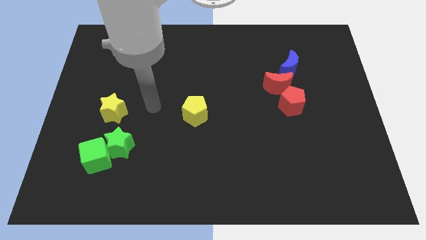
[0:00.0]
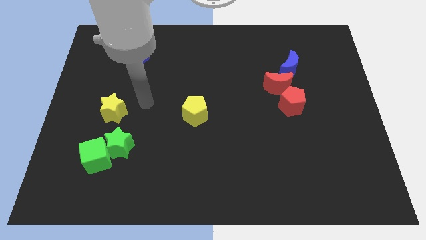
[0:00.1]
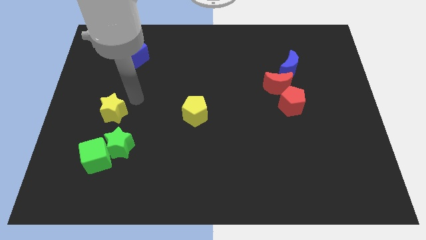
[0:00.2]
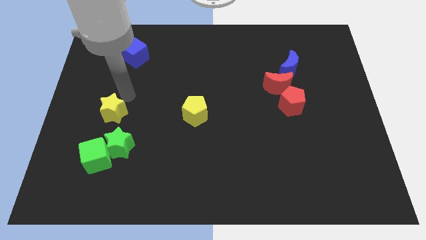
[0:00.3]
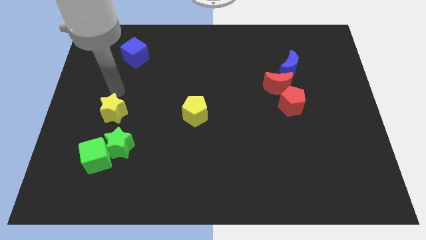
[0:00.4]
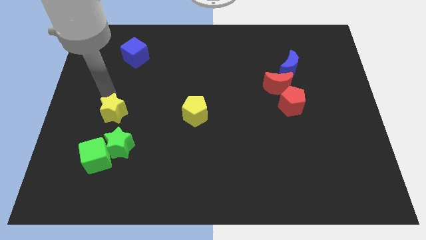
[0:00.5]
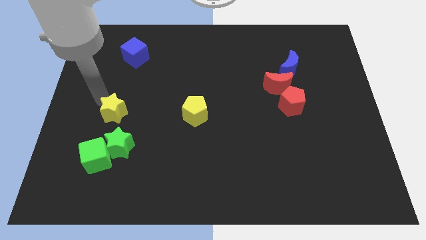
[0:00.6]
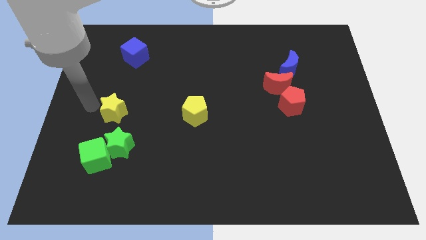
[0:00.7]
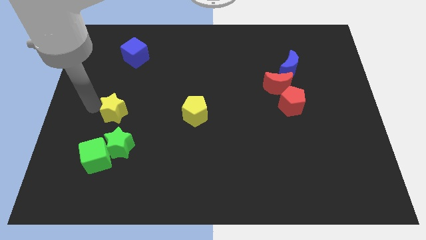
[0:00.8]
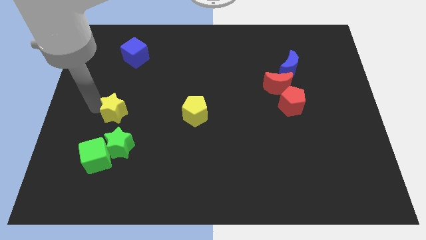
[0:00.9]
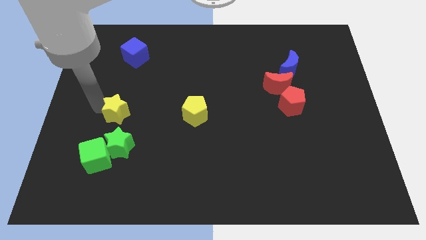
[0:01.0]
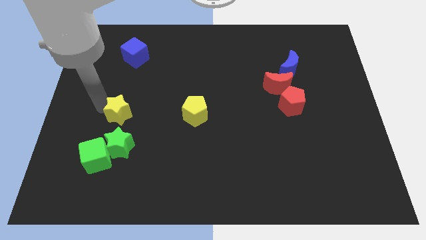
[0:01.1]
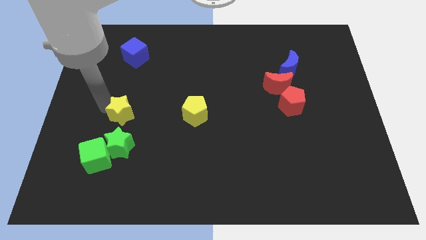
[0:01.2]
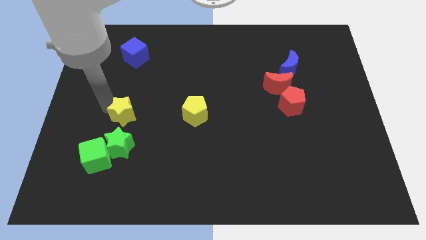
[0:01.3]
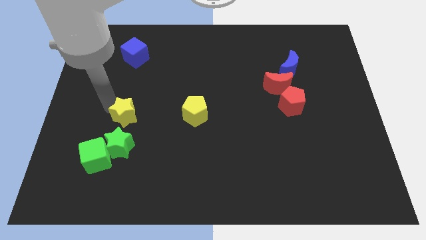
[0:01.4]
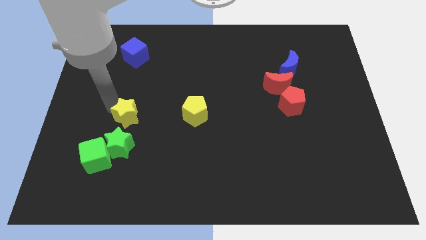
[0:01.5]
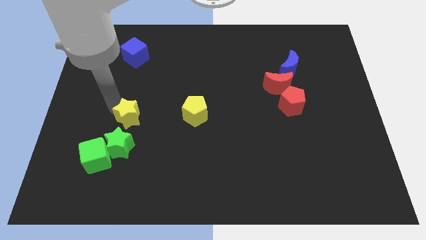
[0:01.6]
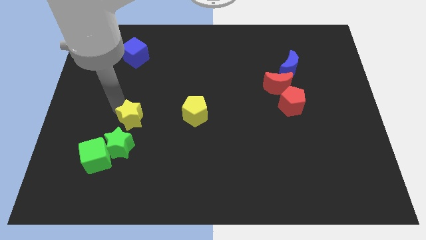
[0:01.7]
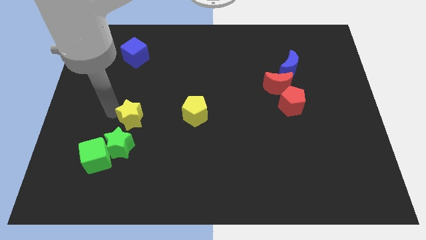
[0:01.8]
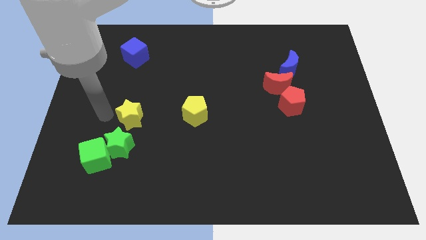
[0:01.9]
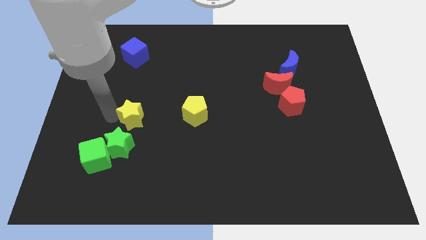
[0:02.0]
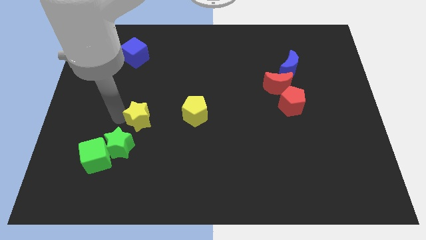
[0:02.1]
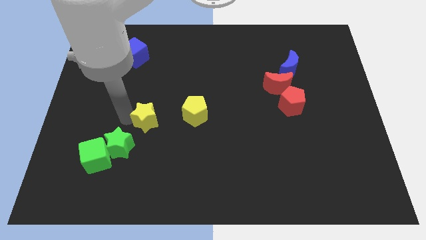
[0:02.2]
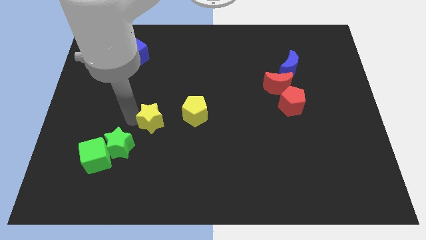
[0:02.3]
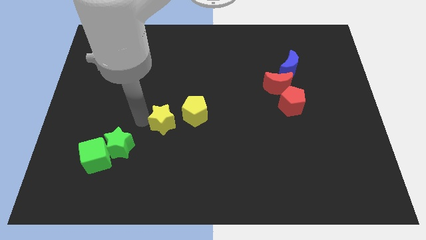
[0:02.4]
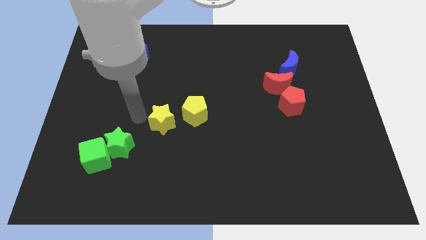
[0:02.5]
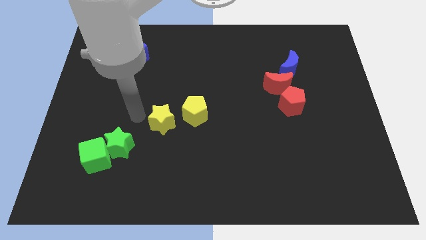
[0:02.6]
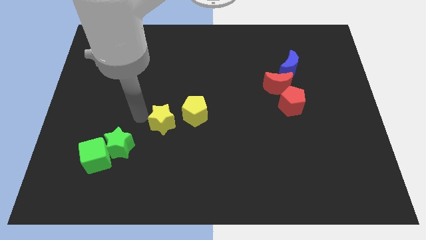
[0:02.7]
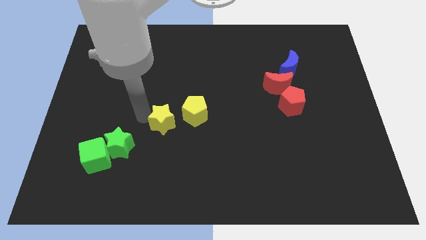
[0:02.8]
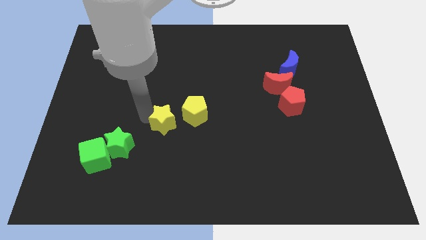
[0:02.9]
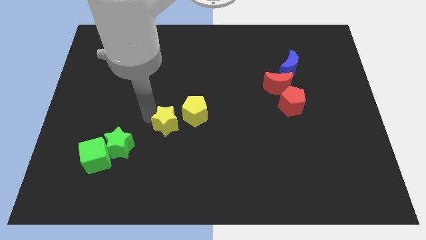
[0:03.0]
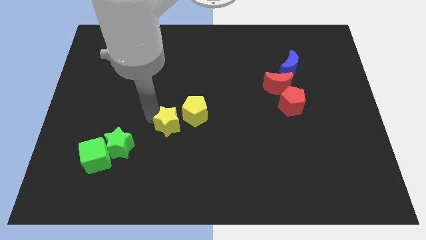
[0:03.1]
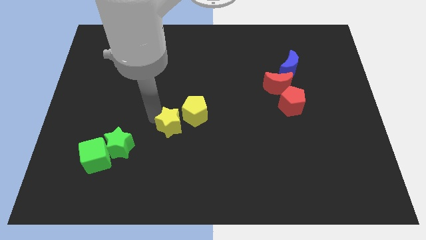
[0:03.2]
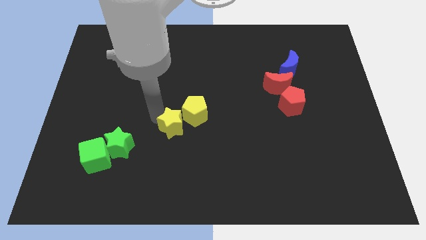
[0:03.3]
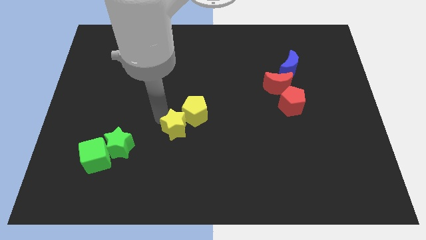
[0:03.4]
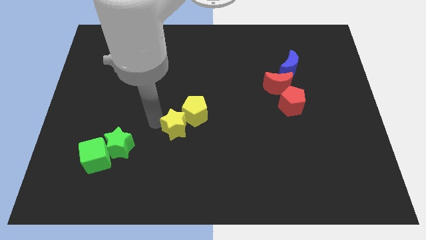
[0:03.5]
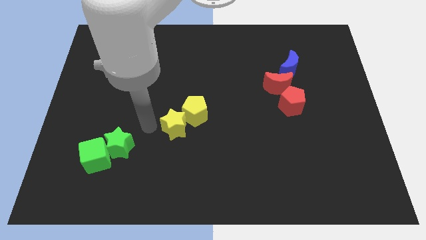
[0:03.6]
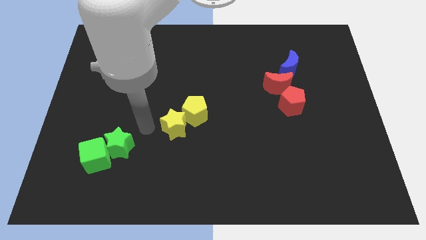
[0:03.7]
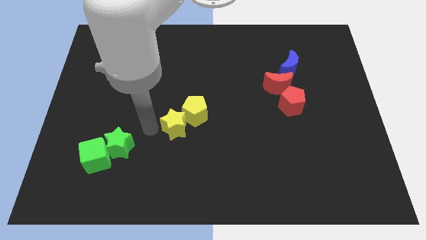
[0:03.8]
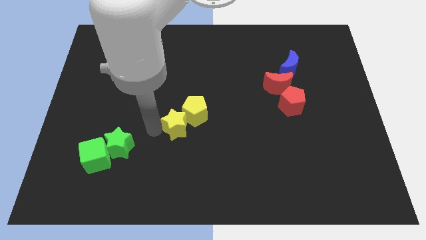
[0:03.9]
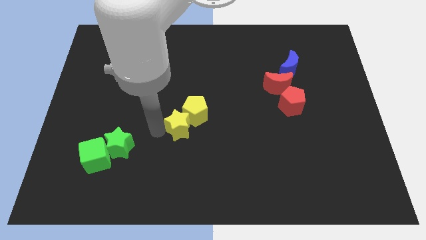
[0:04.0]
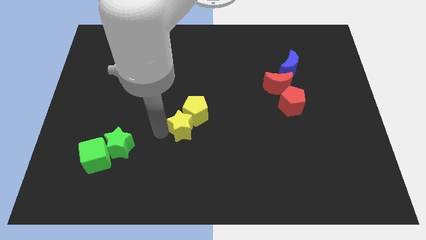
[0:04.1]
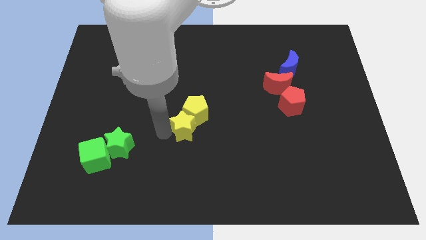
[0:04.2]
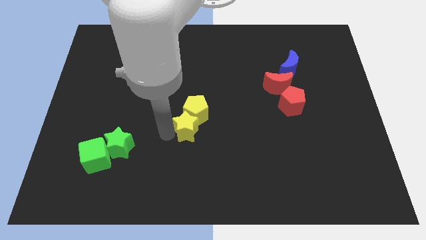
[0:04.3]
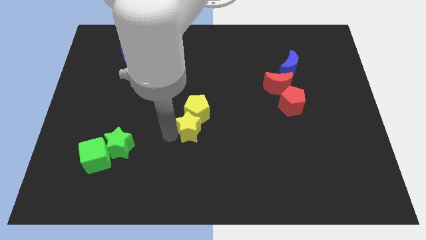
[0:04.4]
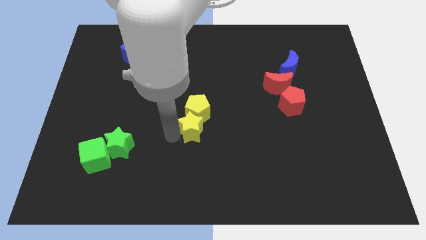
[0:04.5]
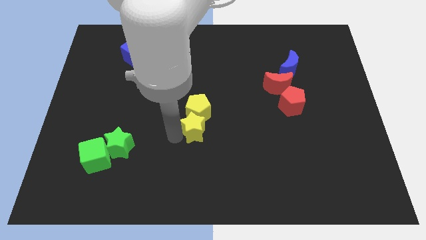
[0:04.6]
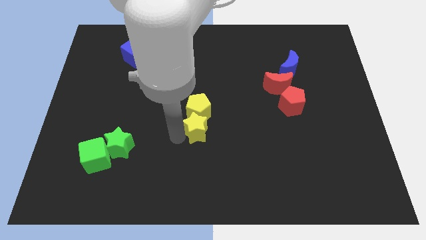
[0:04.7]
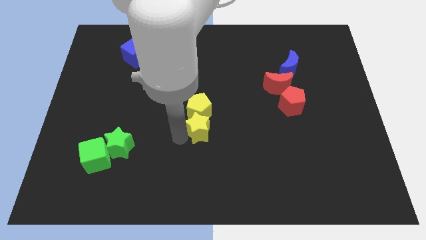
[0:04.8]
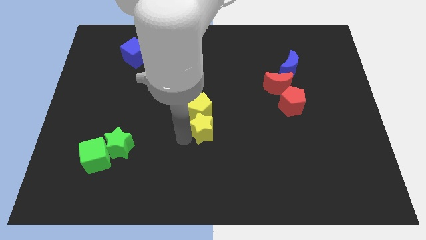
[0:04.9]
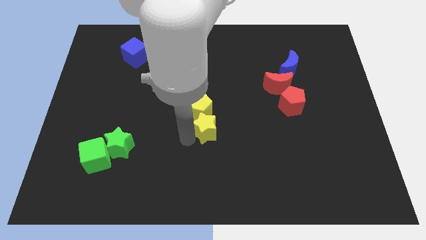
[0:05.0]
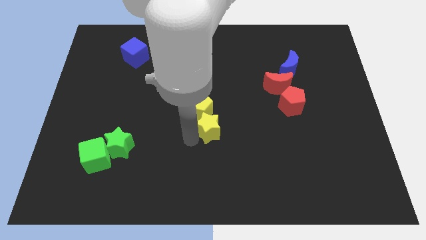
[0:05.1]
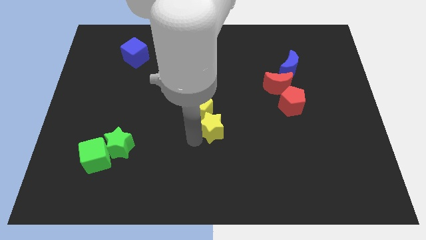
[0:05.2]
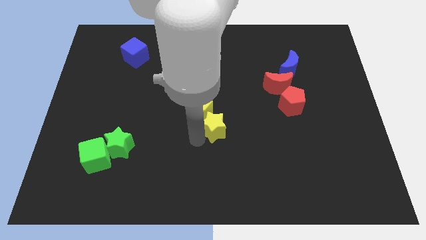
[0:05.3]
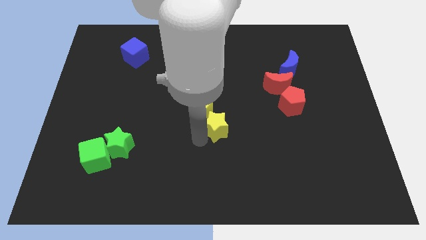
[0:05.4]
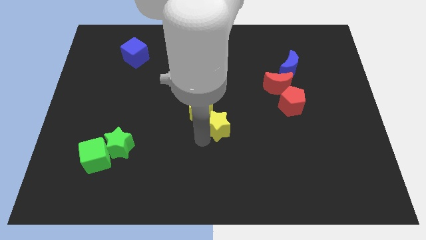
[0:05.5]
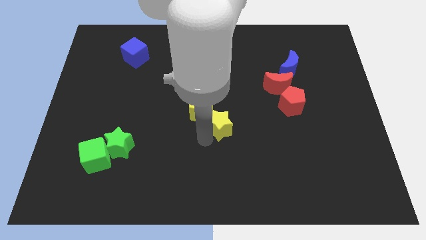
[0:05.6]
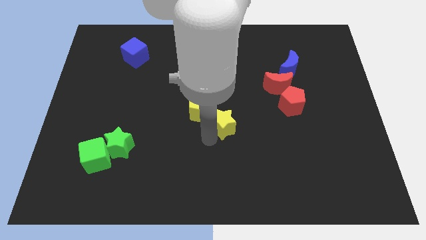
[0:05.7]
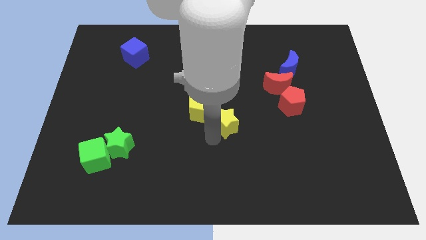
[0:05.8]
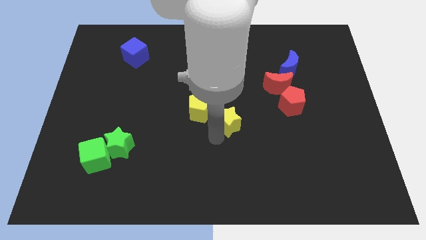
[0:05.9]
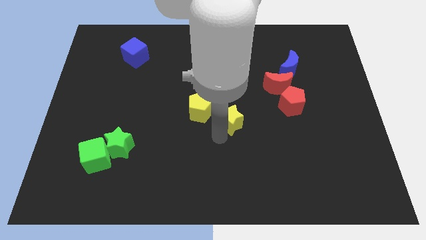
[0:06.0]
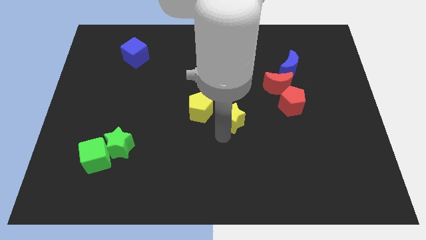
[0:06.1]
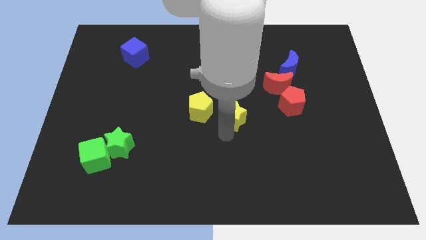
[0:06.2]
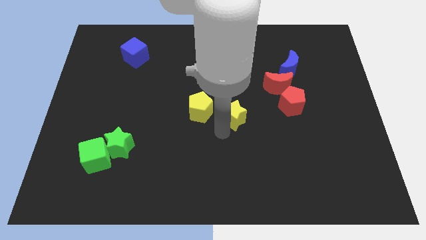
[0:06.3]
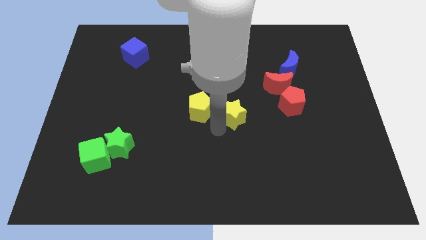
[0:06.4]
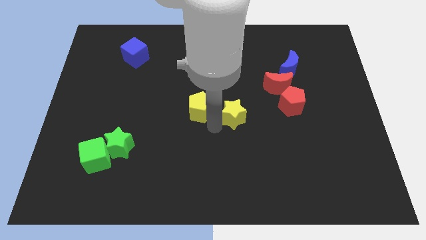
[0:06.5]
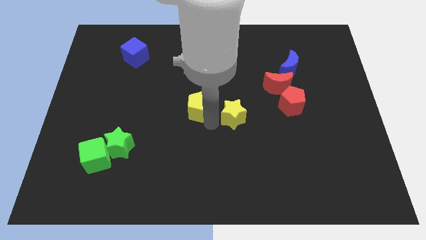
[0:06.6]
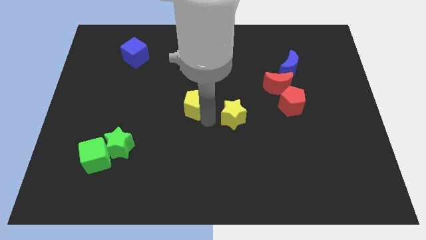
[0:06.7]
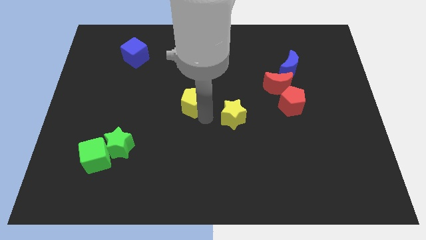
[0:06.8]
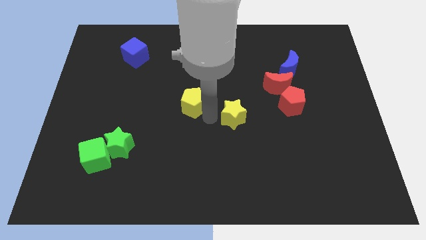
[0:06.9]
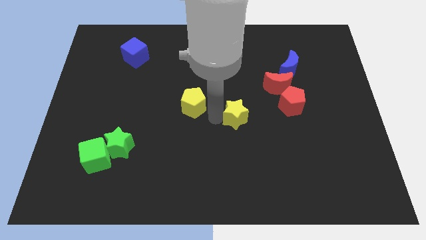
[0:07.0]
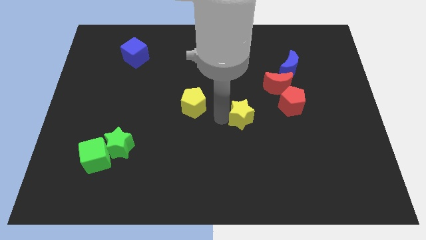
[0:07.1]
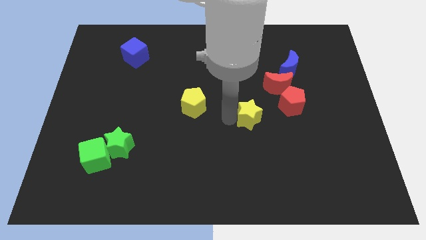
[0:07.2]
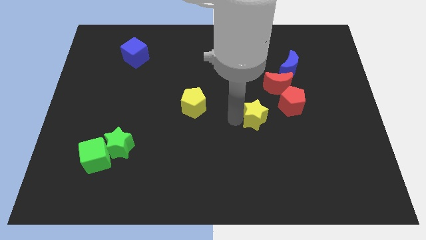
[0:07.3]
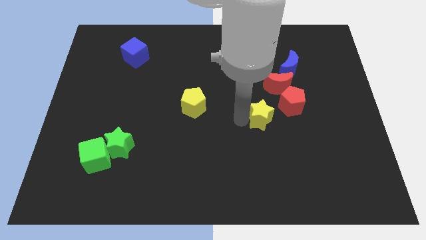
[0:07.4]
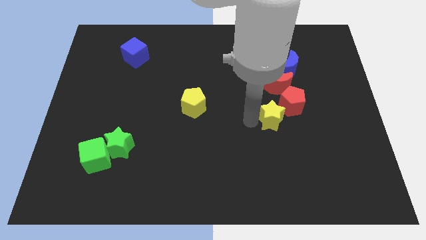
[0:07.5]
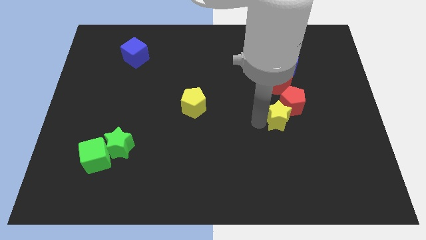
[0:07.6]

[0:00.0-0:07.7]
push the yellow star next to the red pentagon
